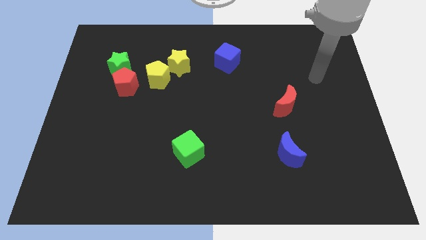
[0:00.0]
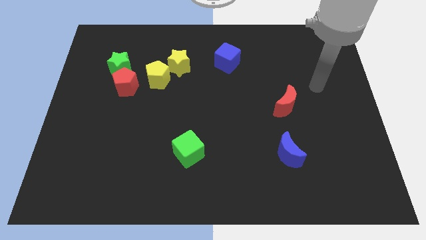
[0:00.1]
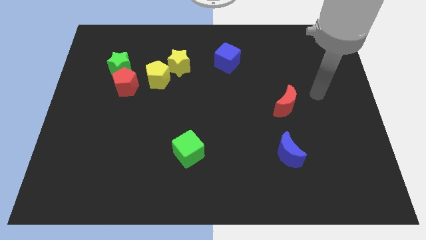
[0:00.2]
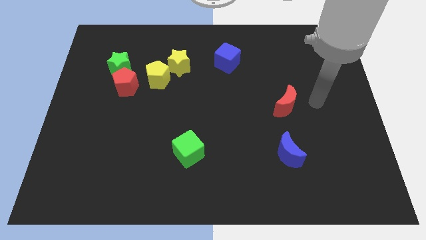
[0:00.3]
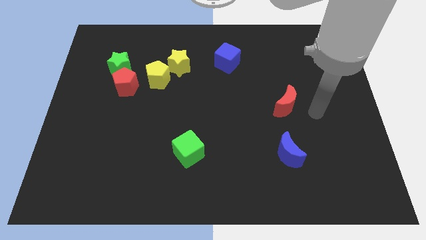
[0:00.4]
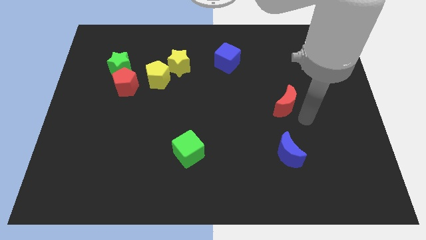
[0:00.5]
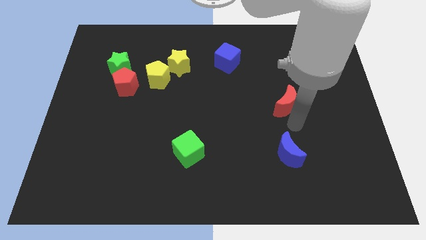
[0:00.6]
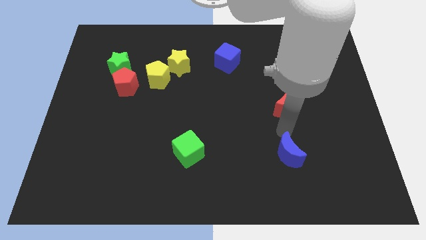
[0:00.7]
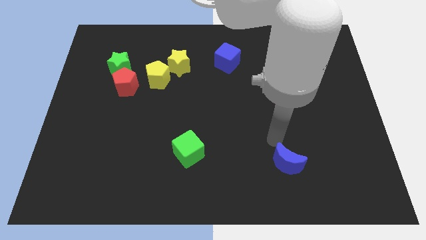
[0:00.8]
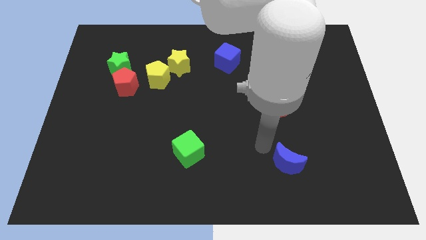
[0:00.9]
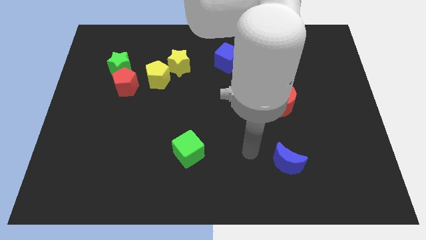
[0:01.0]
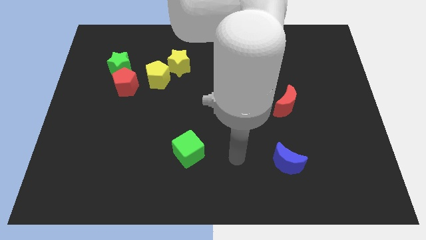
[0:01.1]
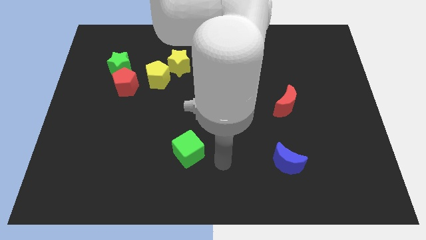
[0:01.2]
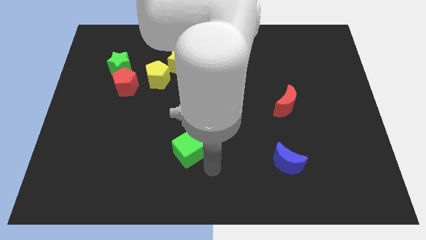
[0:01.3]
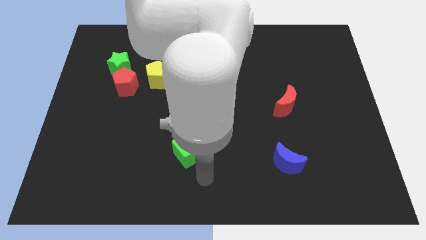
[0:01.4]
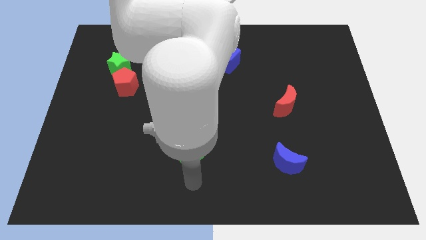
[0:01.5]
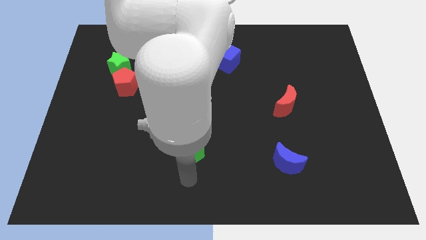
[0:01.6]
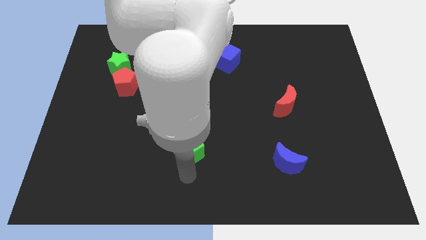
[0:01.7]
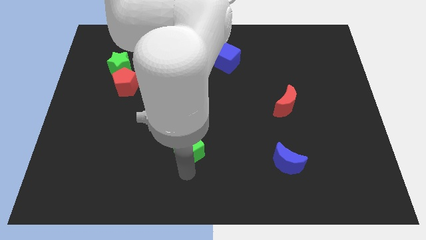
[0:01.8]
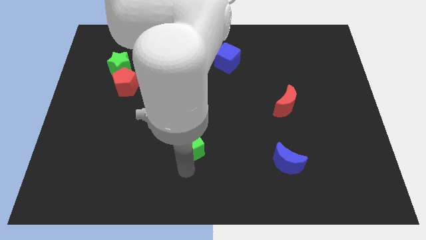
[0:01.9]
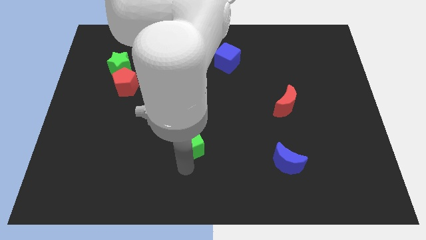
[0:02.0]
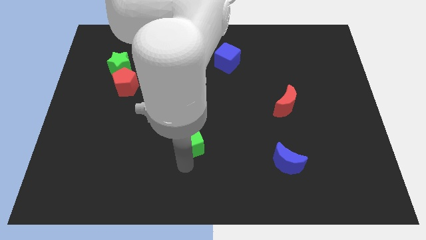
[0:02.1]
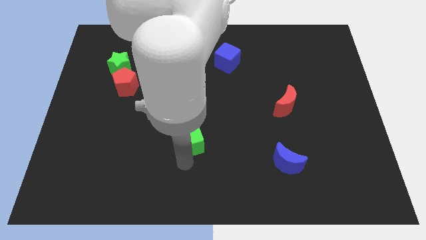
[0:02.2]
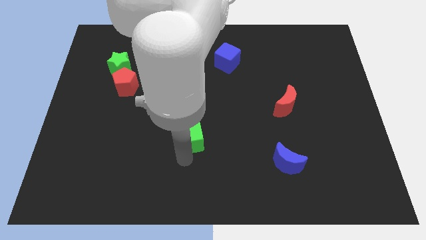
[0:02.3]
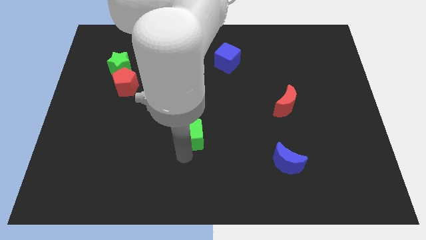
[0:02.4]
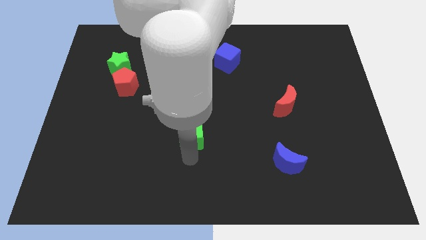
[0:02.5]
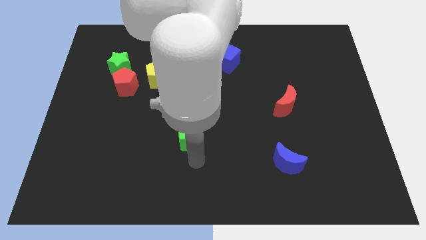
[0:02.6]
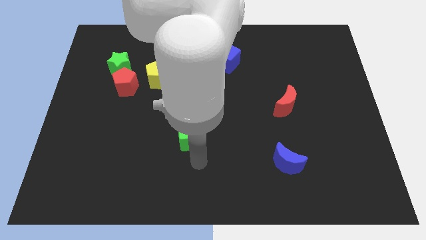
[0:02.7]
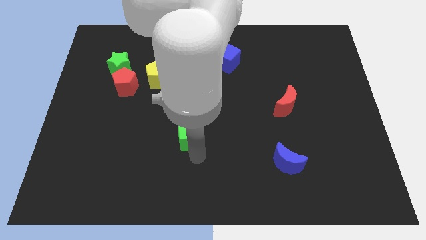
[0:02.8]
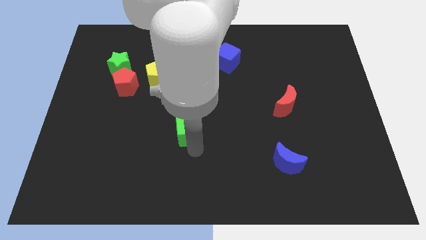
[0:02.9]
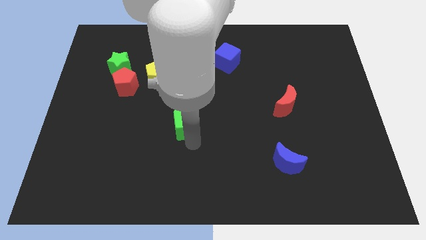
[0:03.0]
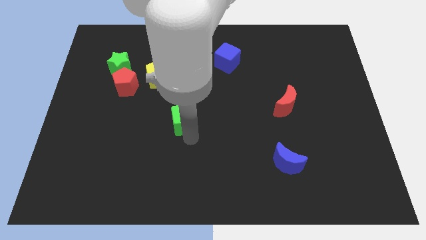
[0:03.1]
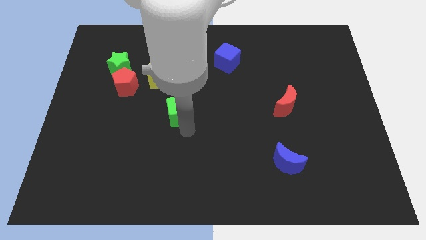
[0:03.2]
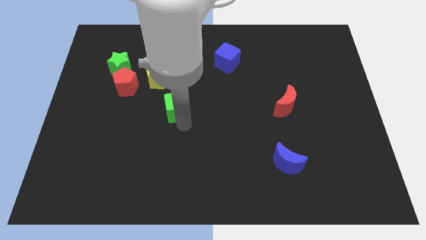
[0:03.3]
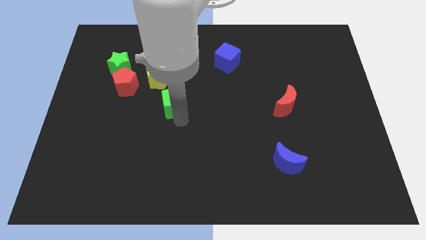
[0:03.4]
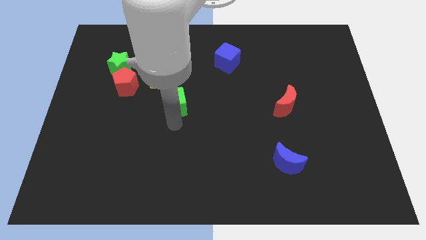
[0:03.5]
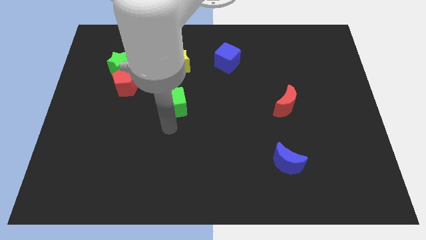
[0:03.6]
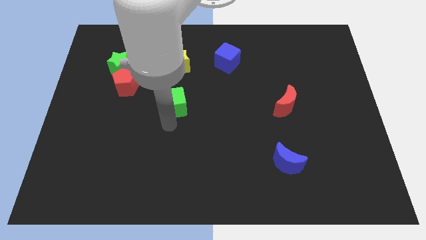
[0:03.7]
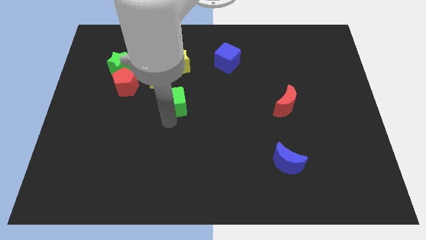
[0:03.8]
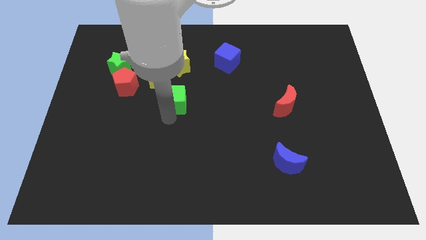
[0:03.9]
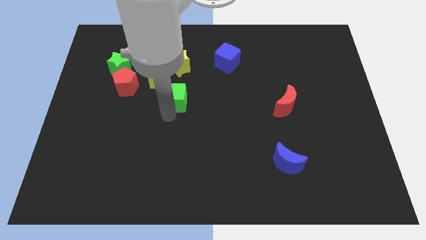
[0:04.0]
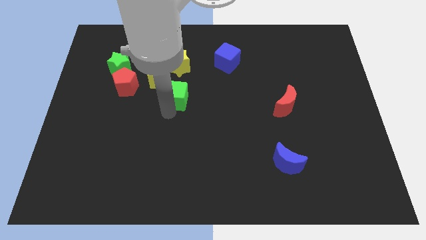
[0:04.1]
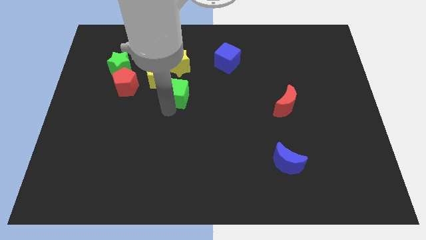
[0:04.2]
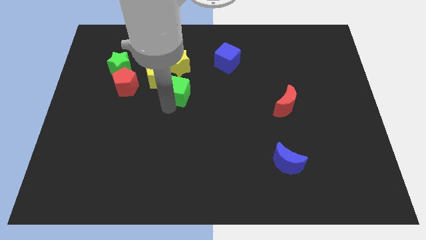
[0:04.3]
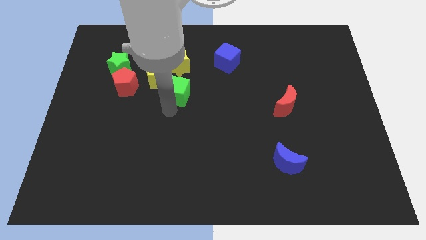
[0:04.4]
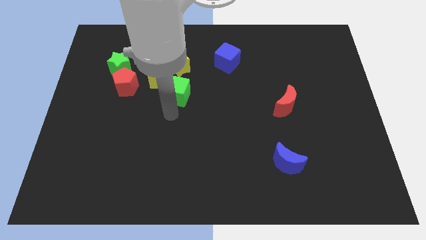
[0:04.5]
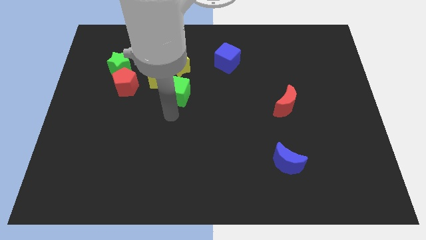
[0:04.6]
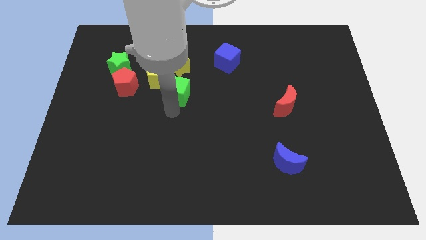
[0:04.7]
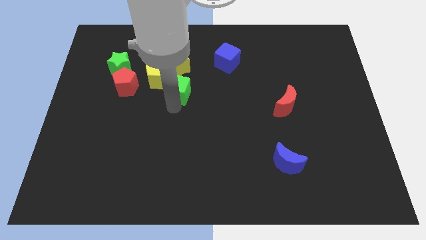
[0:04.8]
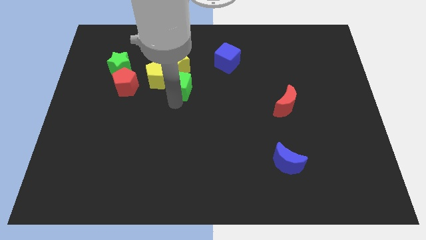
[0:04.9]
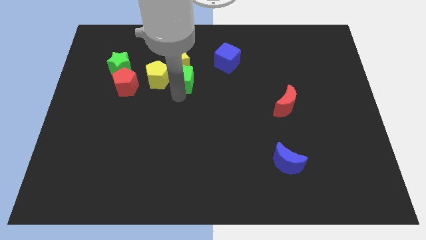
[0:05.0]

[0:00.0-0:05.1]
move the green cube next to the yellow star

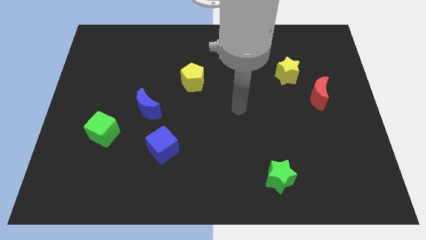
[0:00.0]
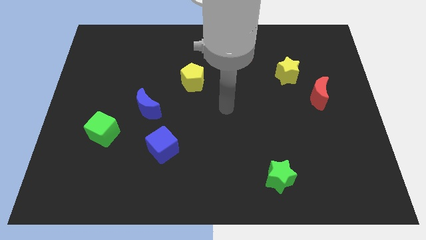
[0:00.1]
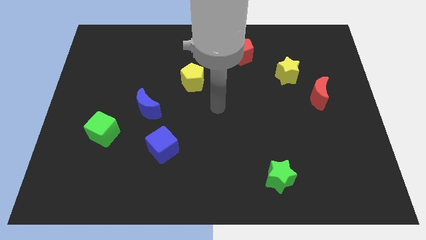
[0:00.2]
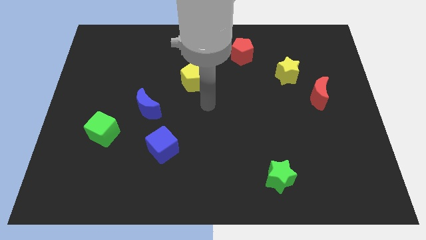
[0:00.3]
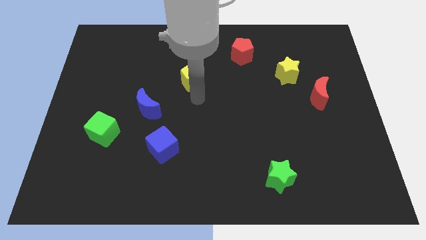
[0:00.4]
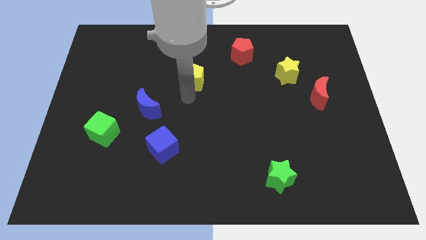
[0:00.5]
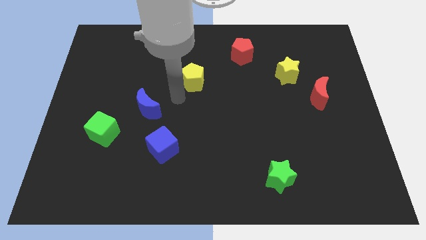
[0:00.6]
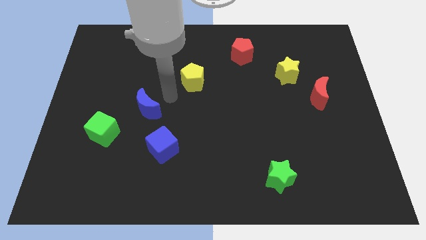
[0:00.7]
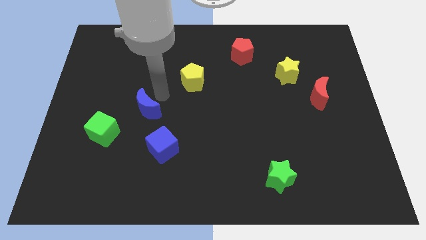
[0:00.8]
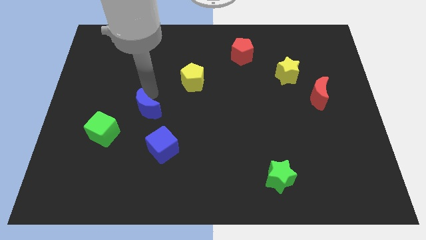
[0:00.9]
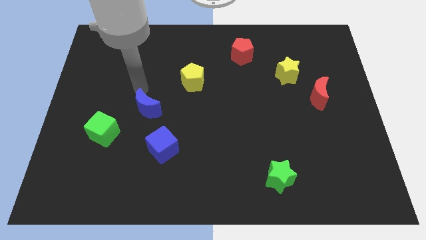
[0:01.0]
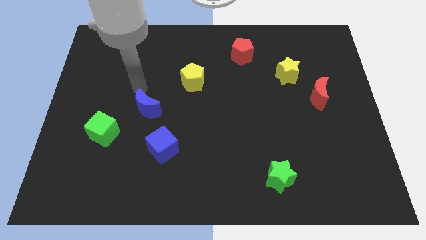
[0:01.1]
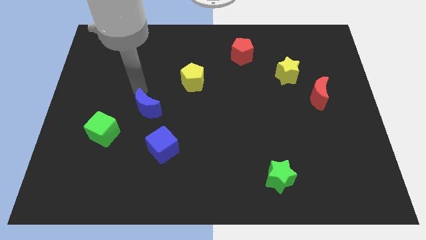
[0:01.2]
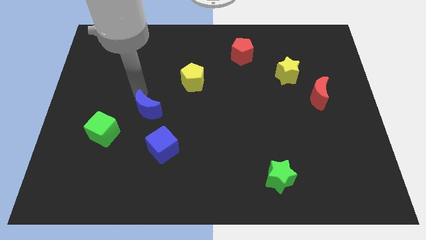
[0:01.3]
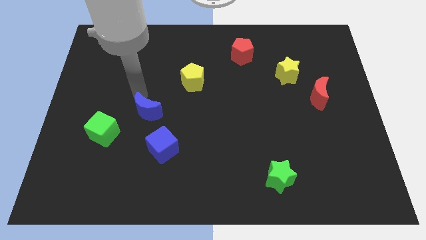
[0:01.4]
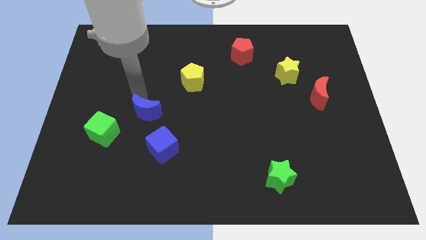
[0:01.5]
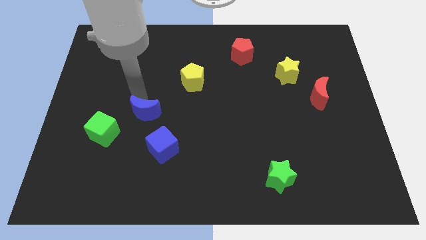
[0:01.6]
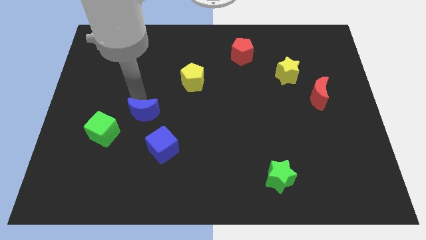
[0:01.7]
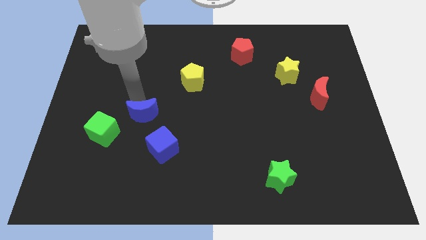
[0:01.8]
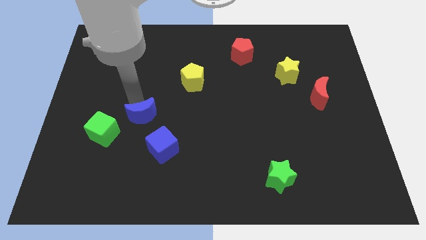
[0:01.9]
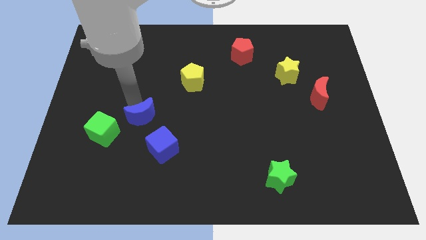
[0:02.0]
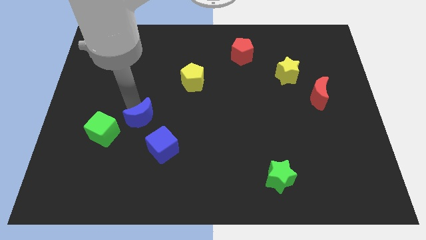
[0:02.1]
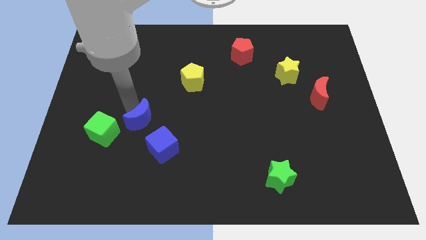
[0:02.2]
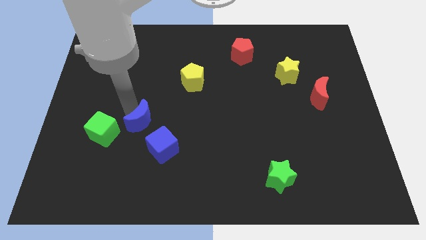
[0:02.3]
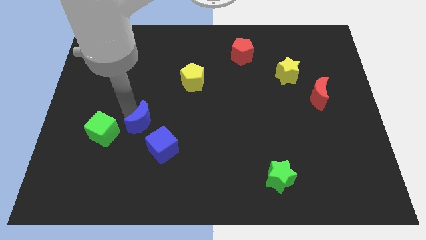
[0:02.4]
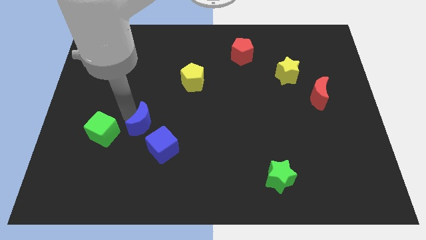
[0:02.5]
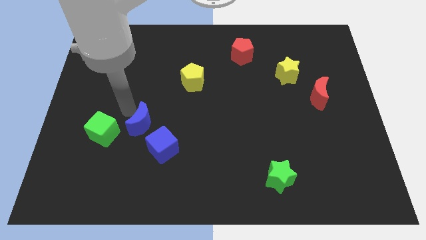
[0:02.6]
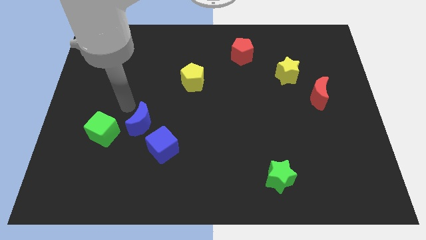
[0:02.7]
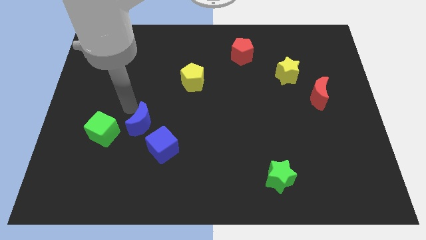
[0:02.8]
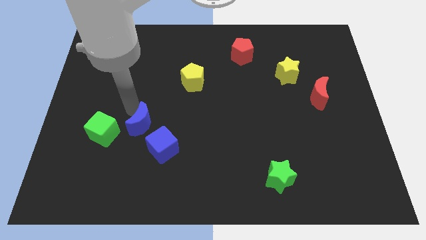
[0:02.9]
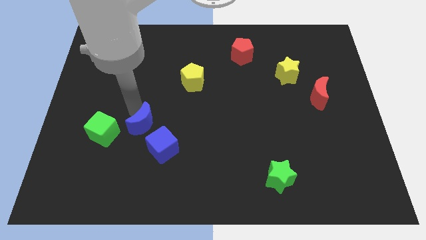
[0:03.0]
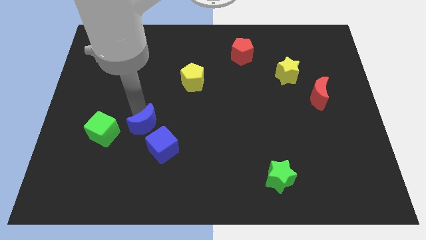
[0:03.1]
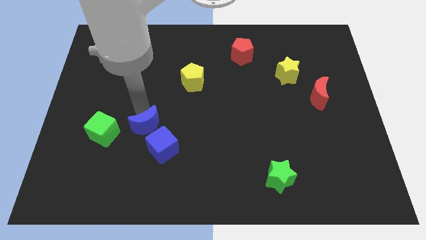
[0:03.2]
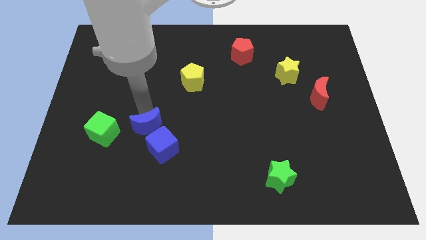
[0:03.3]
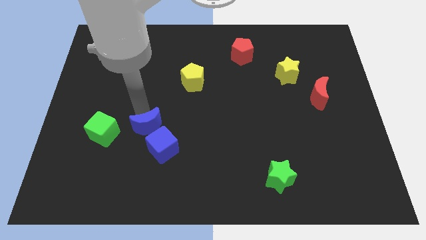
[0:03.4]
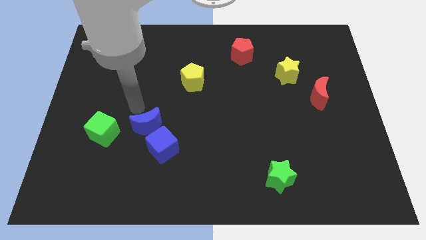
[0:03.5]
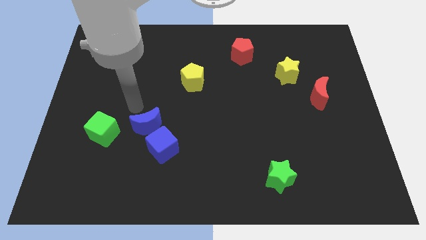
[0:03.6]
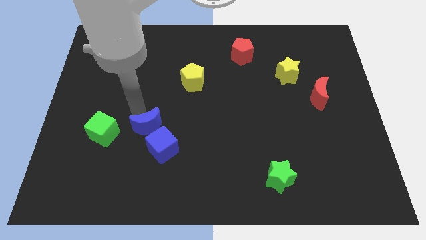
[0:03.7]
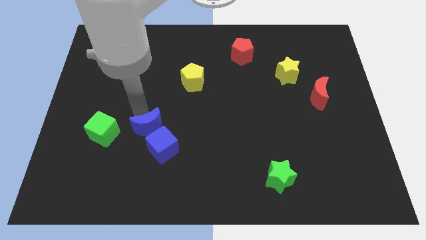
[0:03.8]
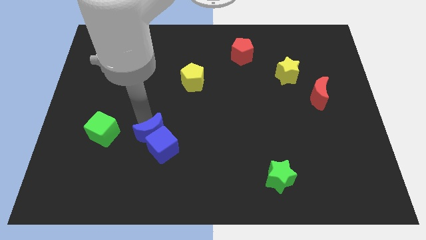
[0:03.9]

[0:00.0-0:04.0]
push the blue moon towards the blue cube
